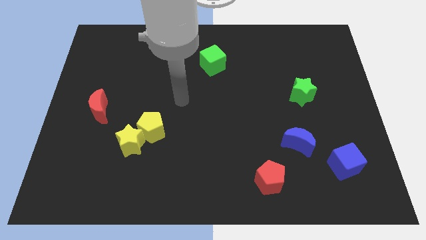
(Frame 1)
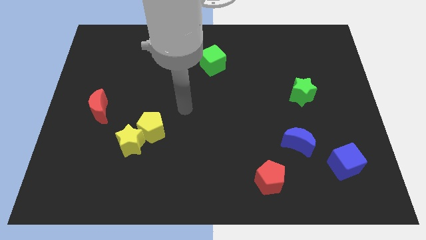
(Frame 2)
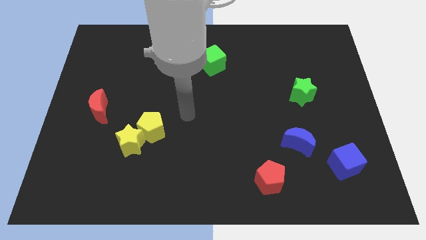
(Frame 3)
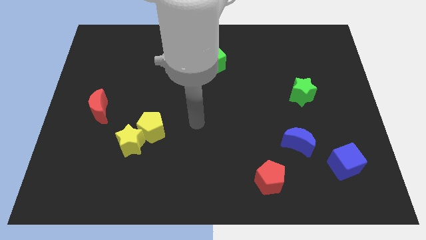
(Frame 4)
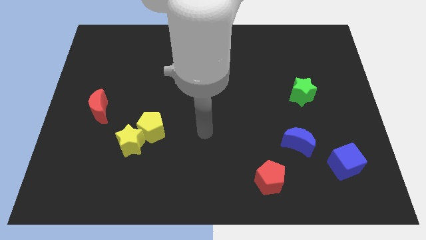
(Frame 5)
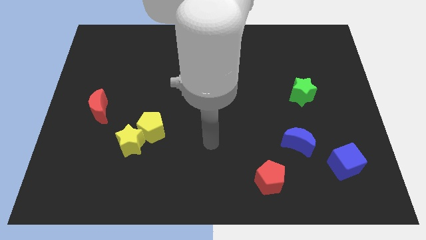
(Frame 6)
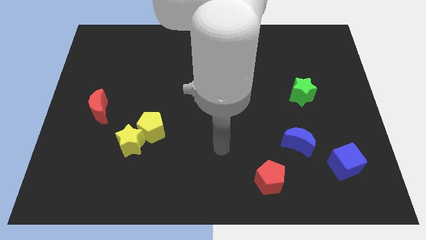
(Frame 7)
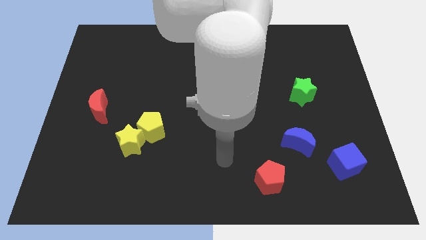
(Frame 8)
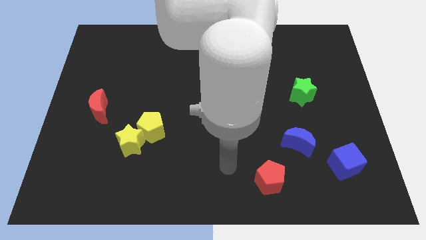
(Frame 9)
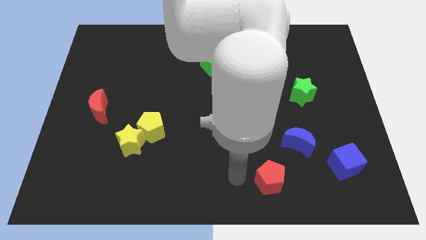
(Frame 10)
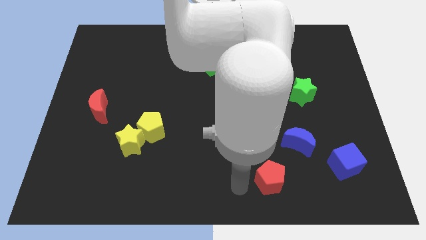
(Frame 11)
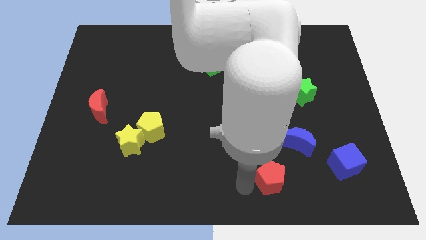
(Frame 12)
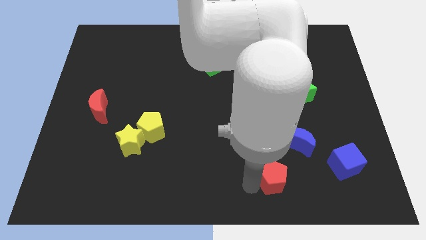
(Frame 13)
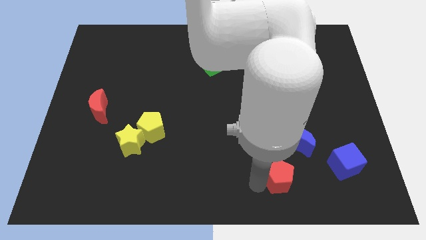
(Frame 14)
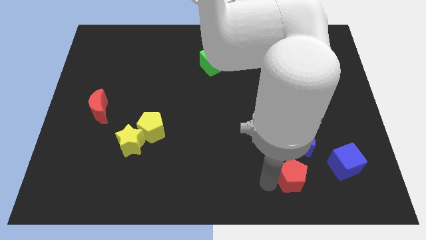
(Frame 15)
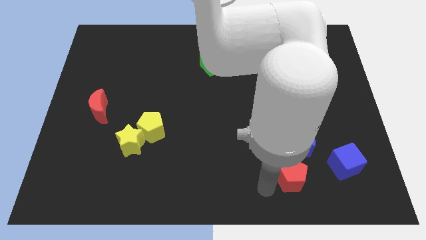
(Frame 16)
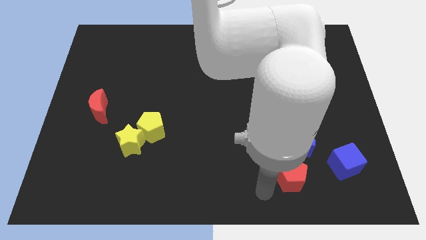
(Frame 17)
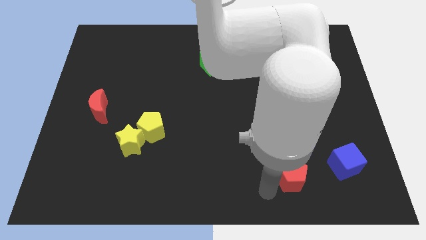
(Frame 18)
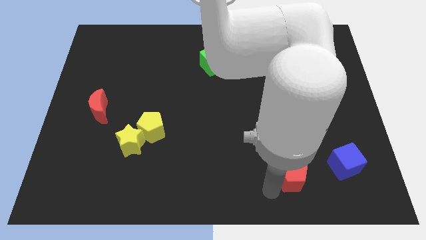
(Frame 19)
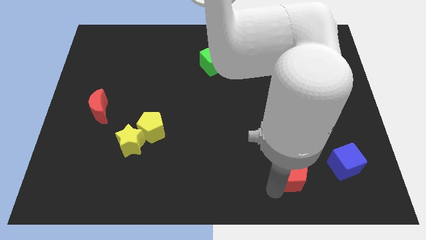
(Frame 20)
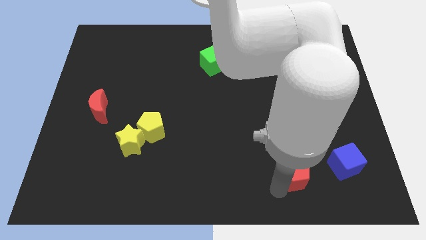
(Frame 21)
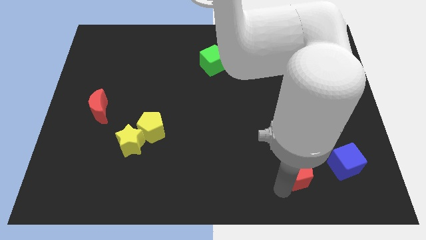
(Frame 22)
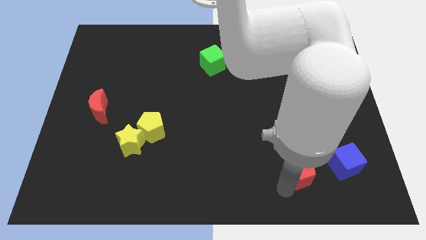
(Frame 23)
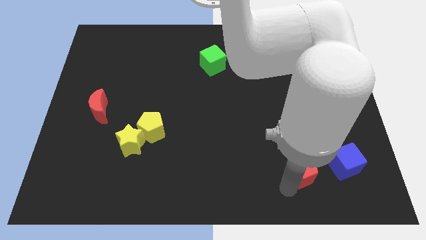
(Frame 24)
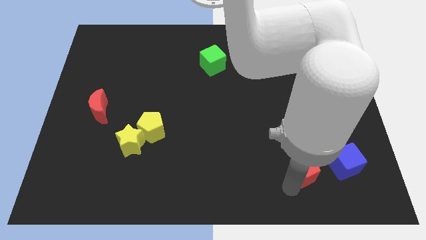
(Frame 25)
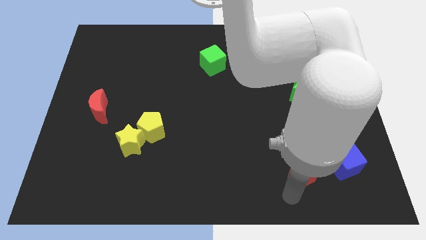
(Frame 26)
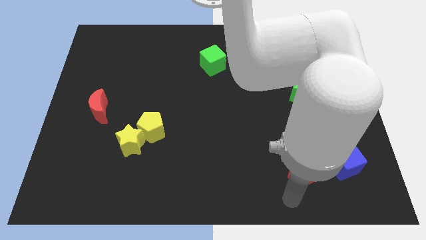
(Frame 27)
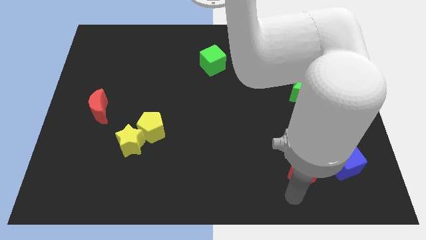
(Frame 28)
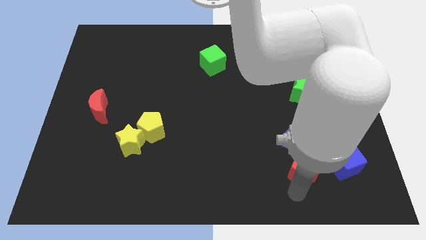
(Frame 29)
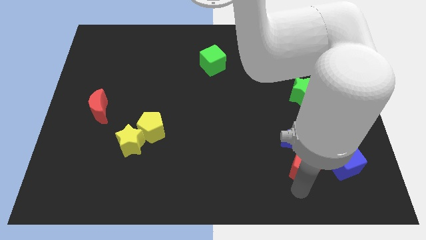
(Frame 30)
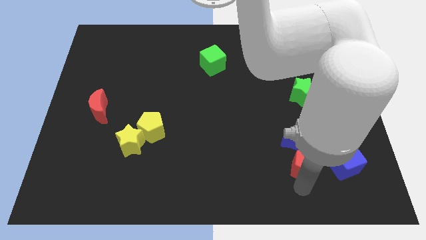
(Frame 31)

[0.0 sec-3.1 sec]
slightly move the red pentagon upwards and to the right diagonally

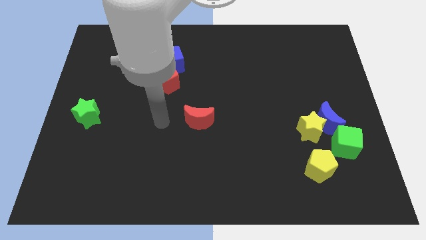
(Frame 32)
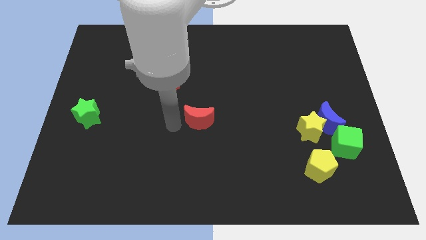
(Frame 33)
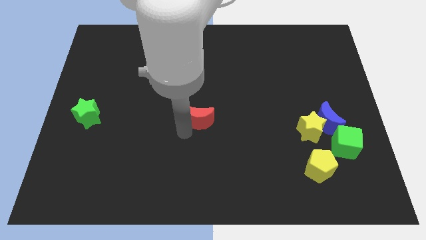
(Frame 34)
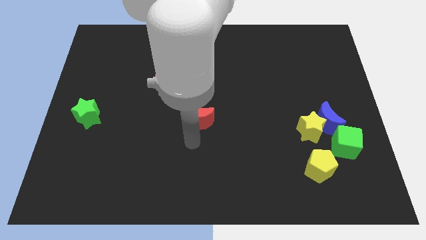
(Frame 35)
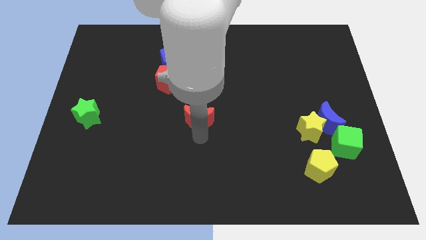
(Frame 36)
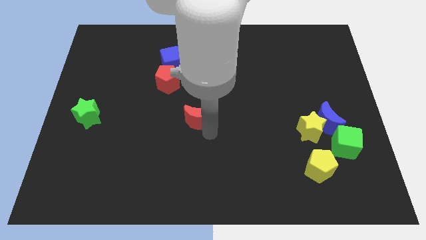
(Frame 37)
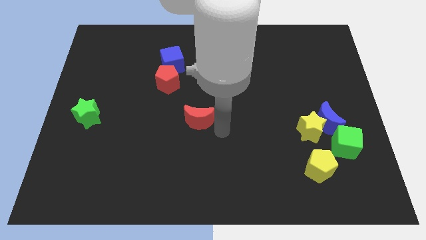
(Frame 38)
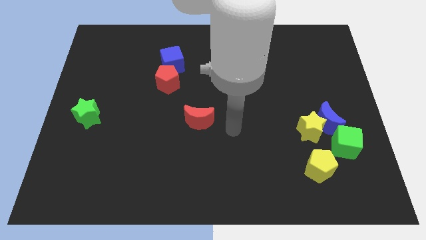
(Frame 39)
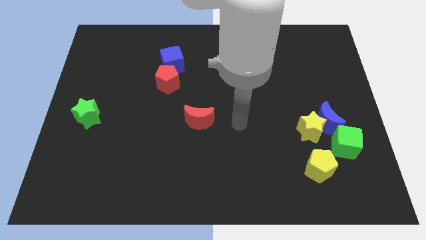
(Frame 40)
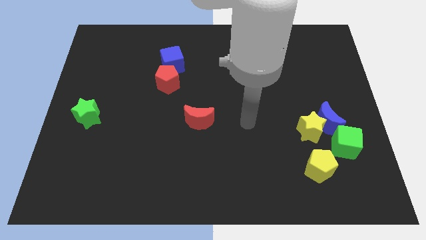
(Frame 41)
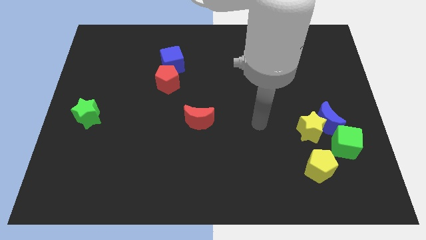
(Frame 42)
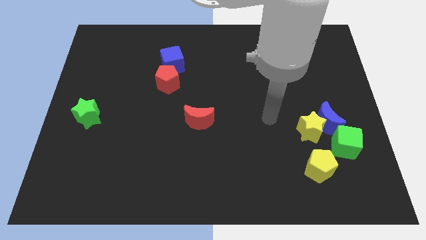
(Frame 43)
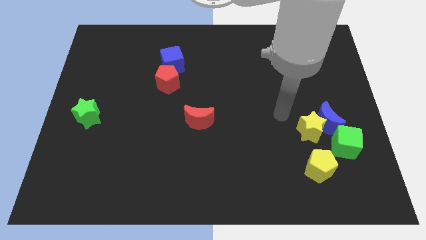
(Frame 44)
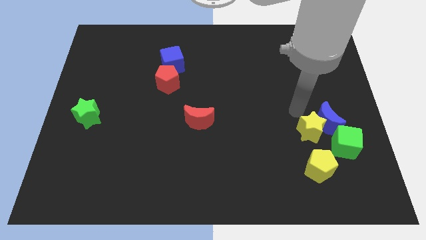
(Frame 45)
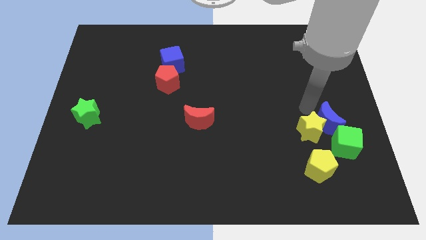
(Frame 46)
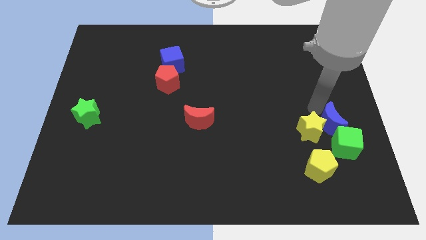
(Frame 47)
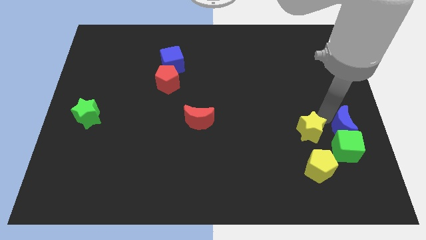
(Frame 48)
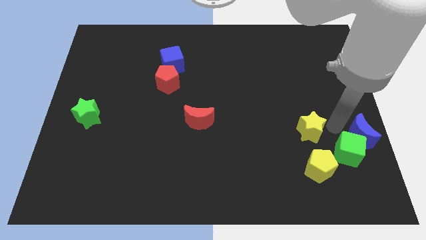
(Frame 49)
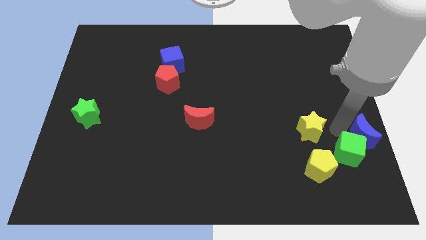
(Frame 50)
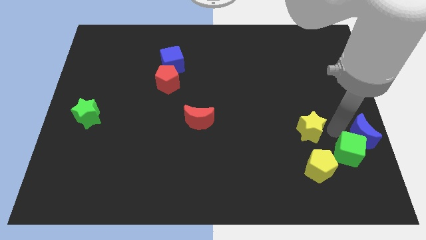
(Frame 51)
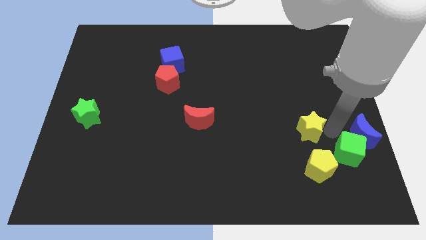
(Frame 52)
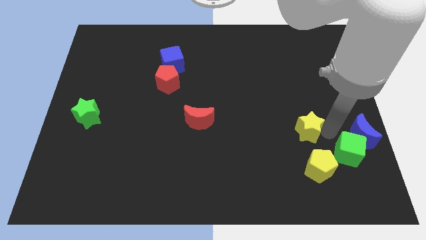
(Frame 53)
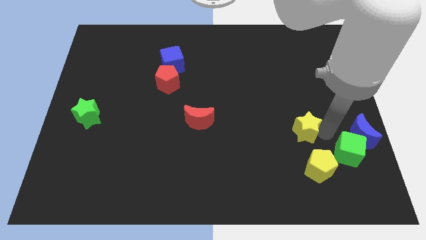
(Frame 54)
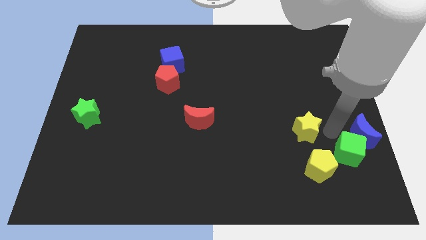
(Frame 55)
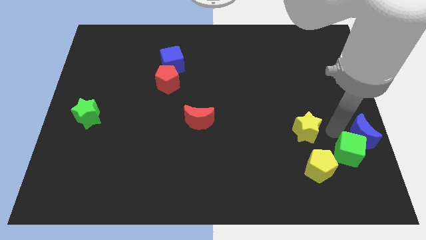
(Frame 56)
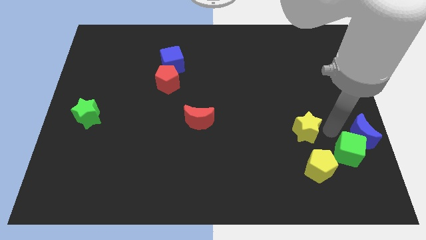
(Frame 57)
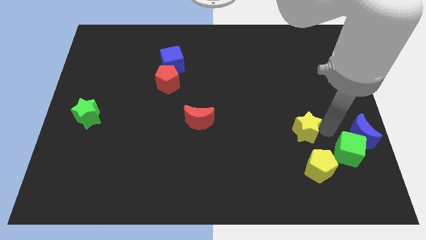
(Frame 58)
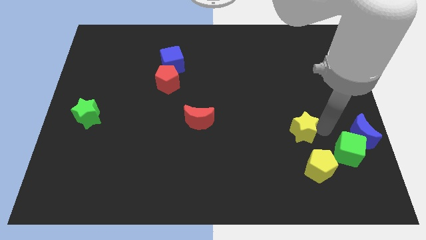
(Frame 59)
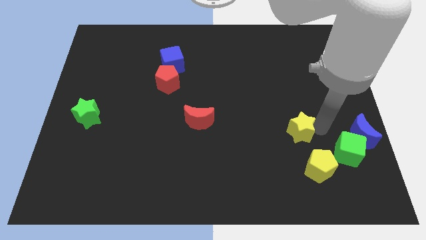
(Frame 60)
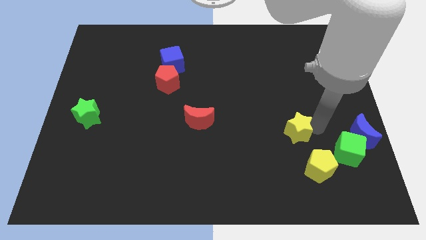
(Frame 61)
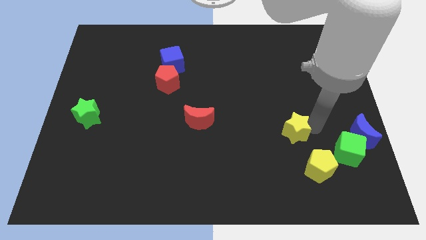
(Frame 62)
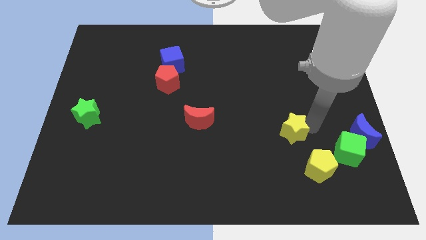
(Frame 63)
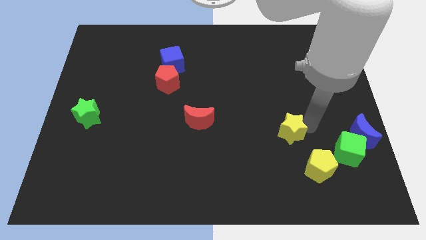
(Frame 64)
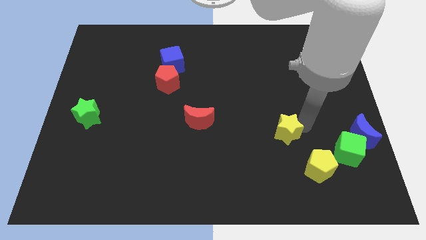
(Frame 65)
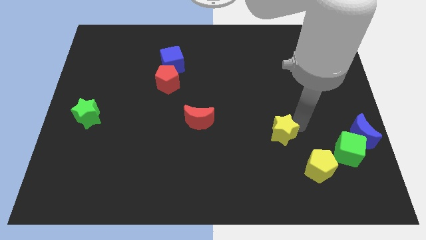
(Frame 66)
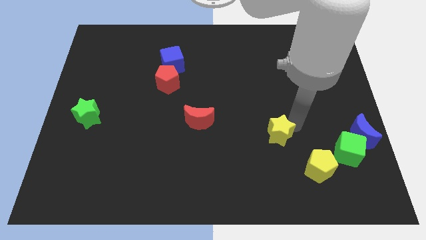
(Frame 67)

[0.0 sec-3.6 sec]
push the yellow star left a bit

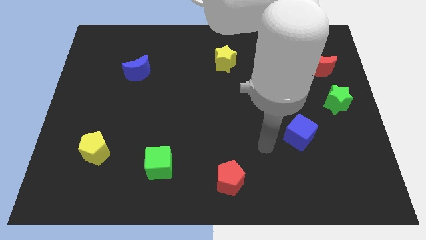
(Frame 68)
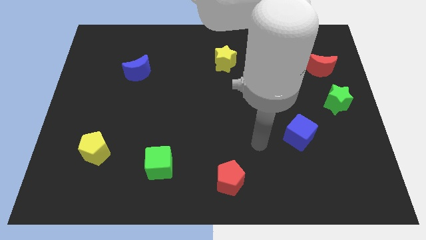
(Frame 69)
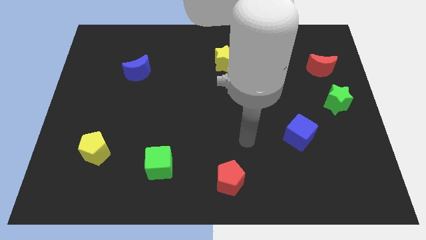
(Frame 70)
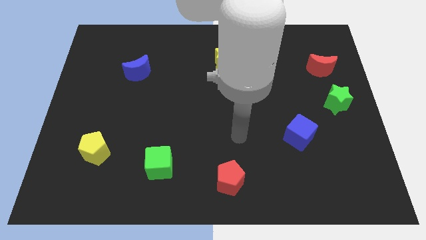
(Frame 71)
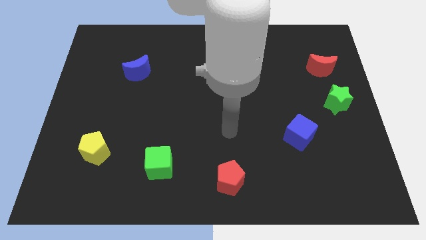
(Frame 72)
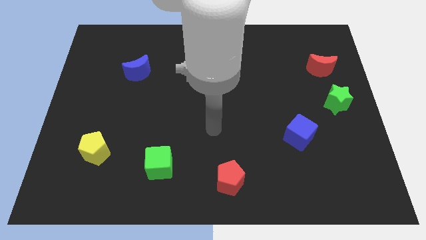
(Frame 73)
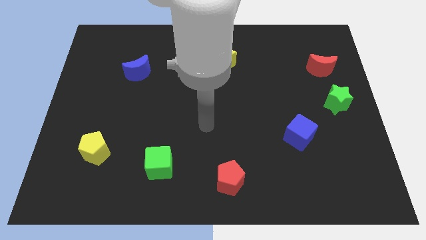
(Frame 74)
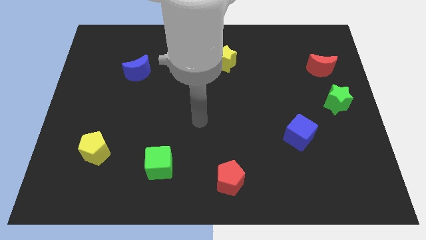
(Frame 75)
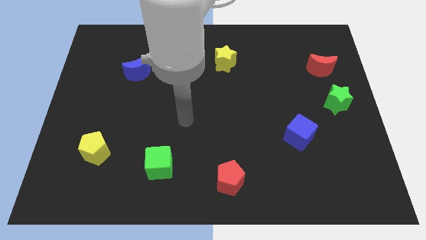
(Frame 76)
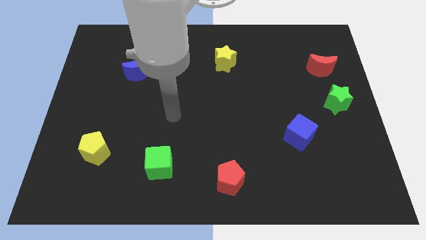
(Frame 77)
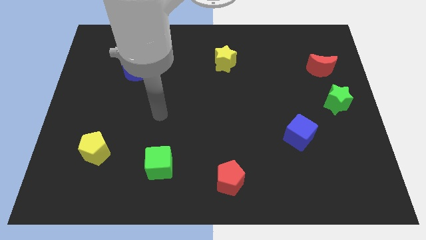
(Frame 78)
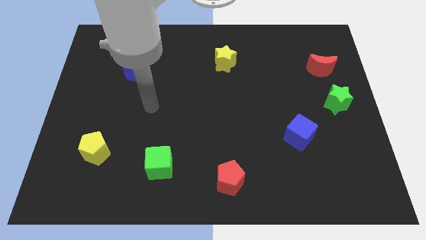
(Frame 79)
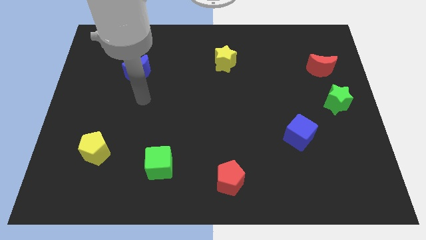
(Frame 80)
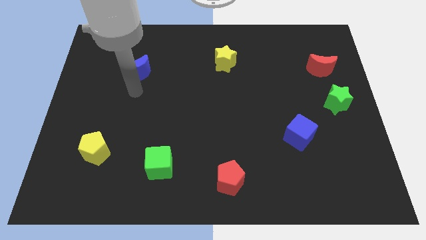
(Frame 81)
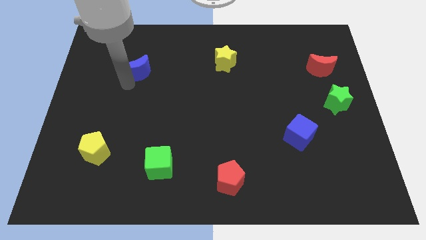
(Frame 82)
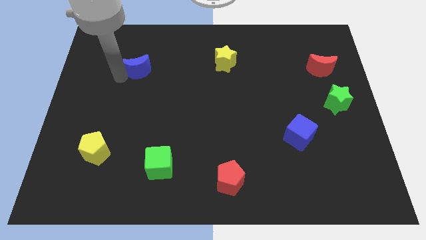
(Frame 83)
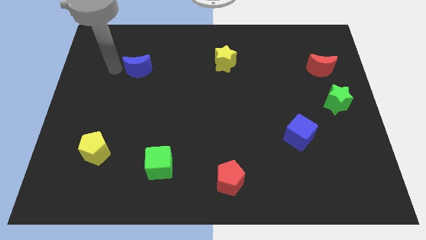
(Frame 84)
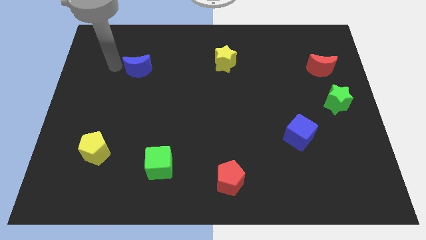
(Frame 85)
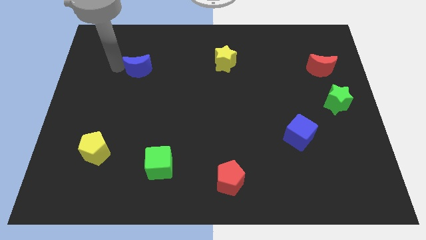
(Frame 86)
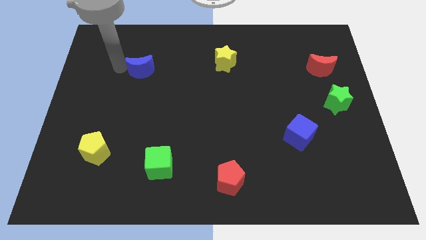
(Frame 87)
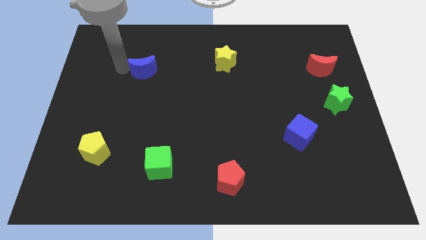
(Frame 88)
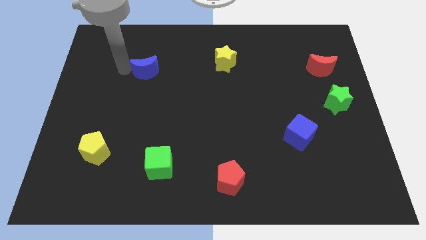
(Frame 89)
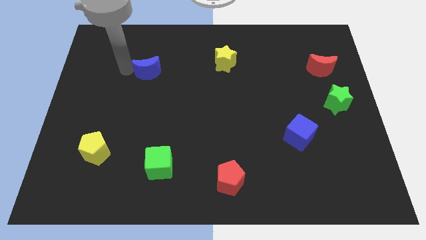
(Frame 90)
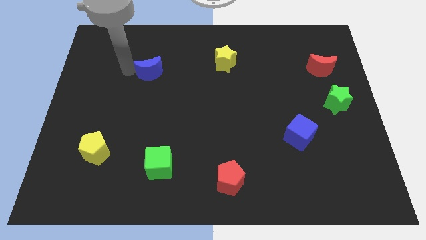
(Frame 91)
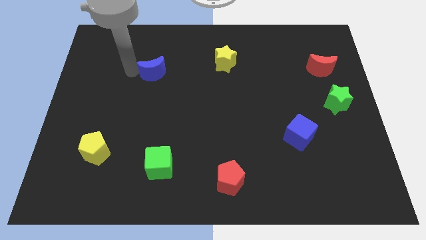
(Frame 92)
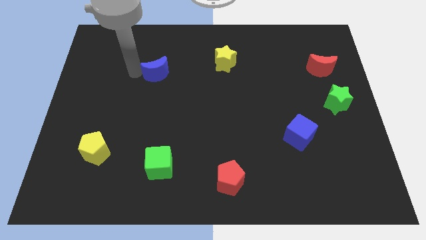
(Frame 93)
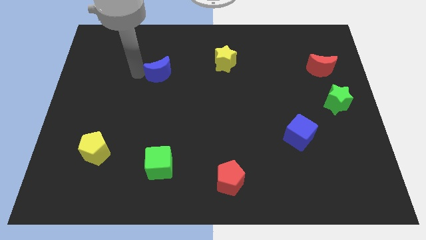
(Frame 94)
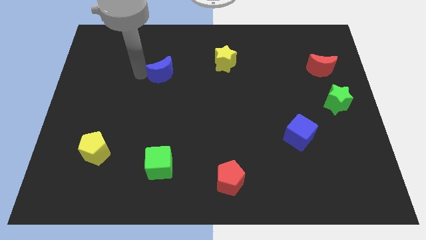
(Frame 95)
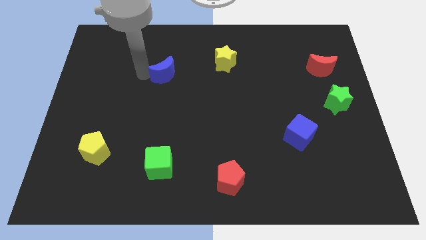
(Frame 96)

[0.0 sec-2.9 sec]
move the blue moon right somewhat
